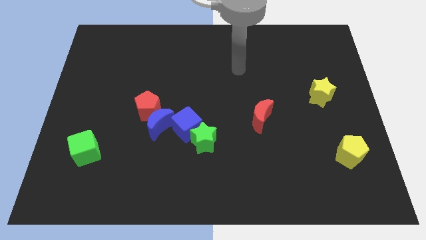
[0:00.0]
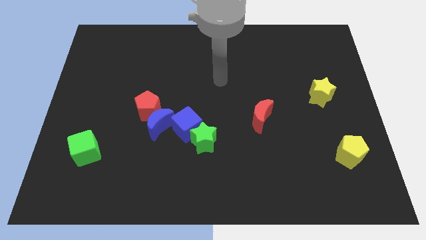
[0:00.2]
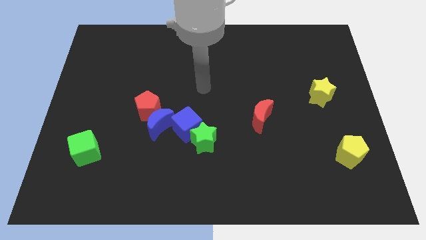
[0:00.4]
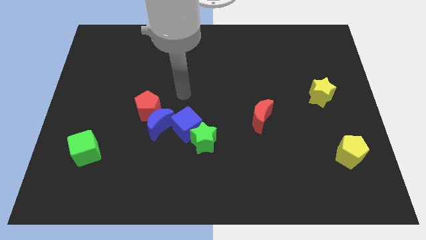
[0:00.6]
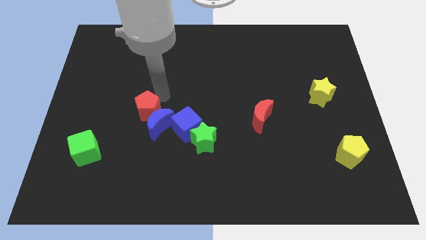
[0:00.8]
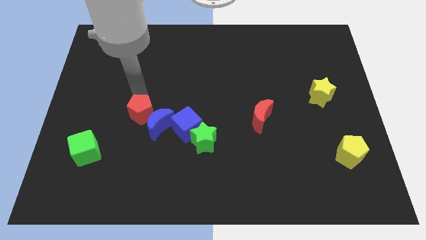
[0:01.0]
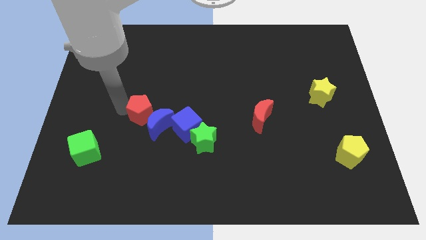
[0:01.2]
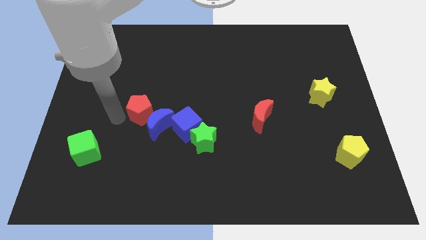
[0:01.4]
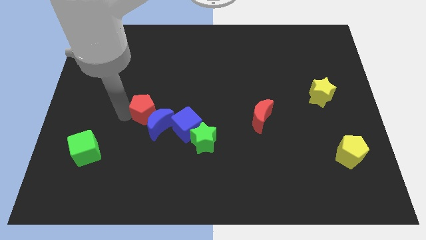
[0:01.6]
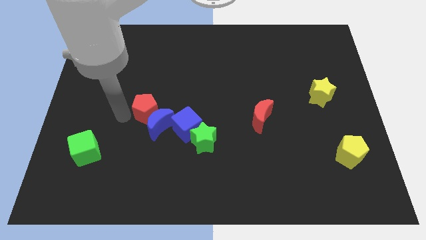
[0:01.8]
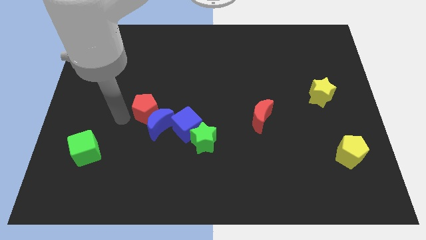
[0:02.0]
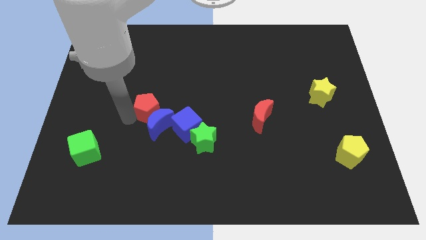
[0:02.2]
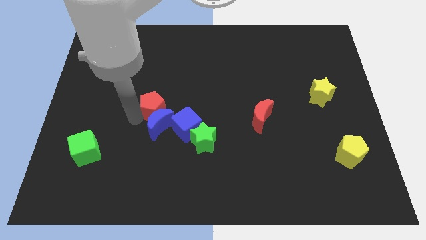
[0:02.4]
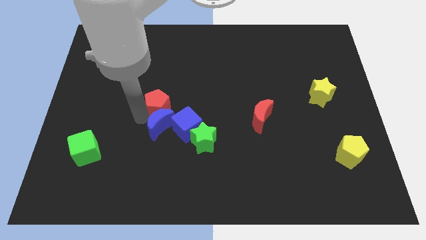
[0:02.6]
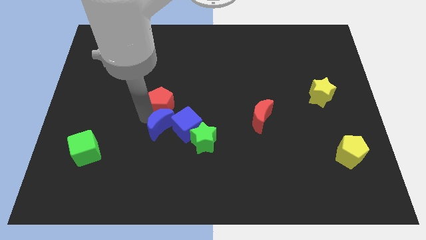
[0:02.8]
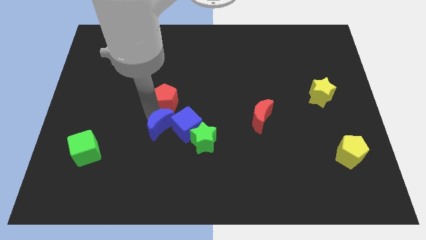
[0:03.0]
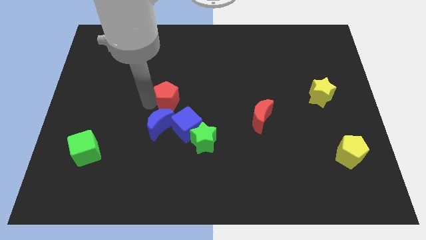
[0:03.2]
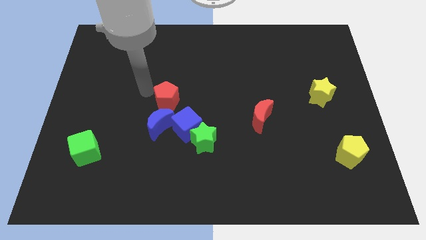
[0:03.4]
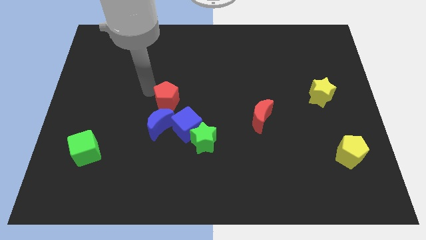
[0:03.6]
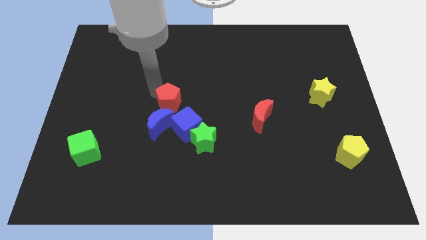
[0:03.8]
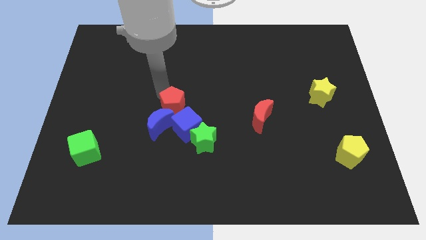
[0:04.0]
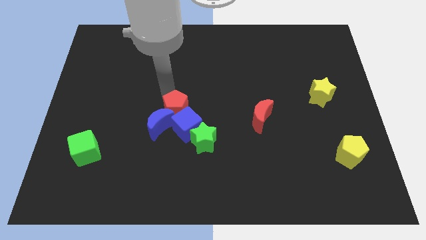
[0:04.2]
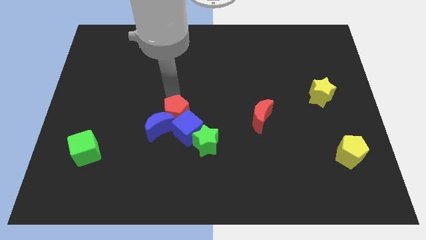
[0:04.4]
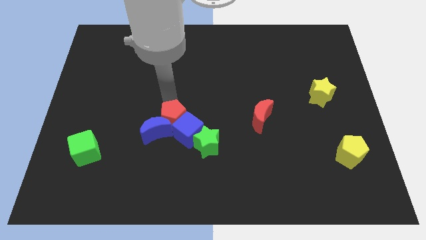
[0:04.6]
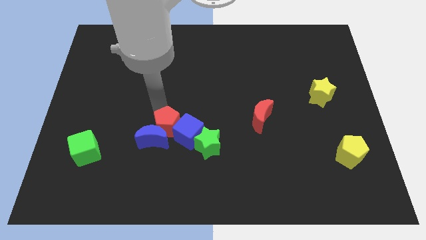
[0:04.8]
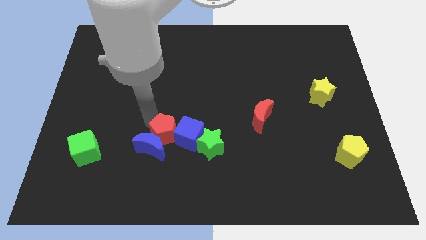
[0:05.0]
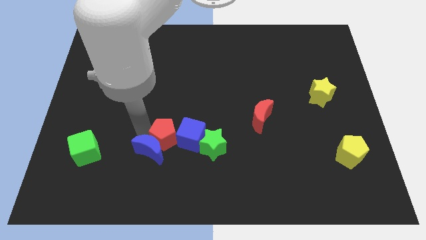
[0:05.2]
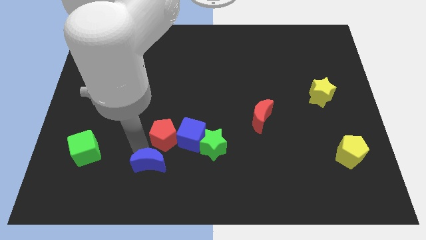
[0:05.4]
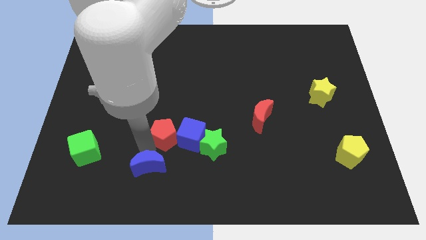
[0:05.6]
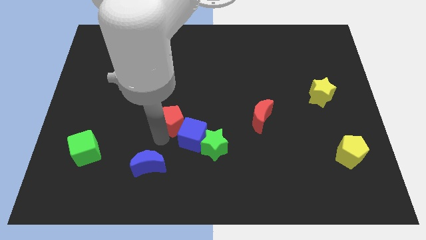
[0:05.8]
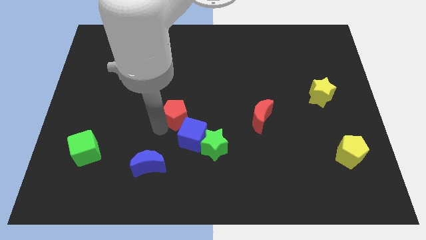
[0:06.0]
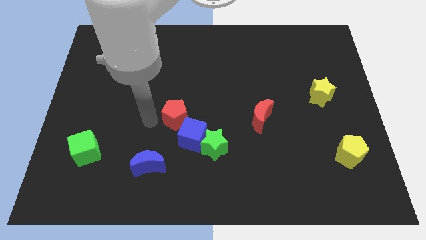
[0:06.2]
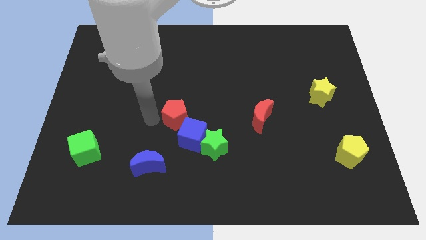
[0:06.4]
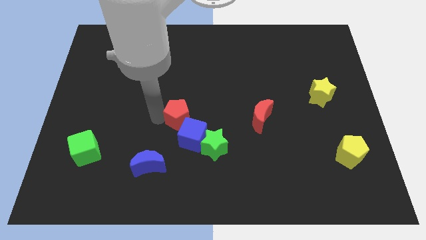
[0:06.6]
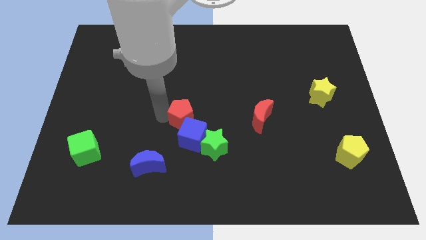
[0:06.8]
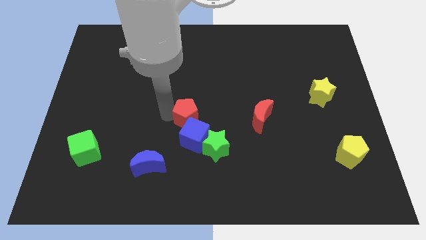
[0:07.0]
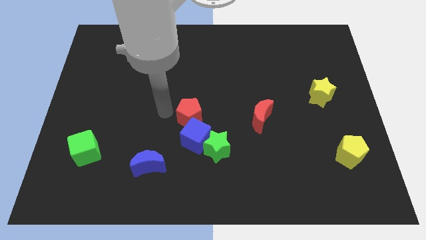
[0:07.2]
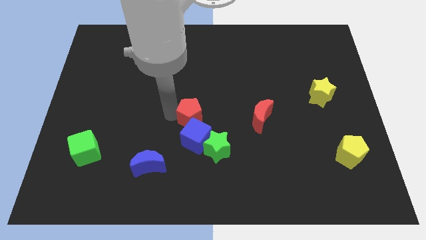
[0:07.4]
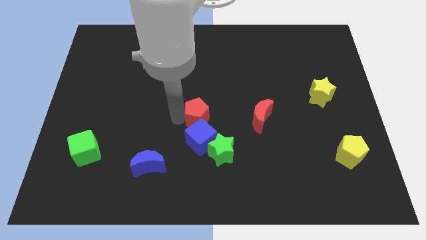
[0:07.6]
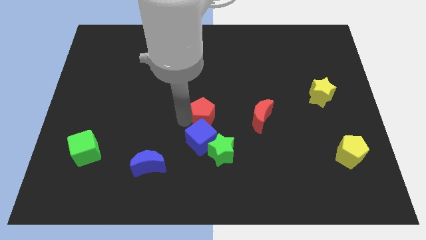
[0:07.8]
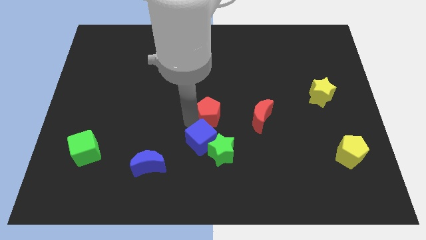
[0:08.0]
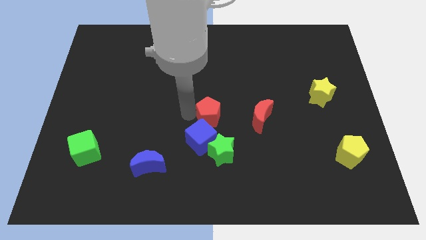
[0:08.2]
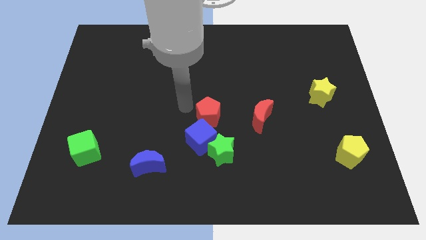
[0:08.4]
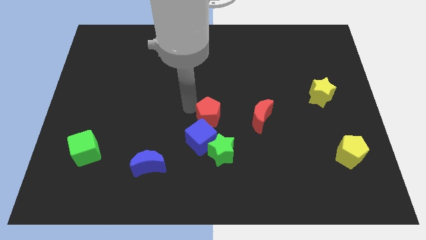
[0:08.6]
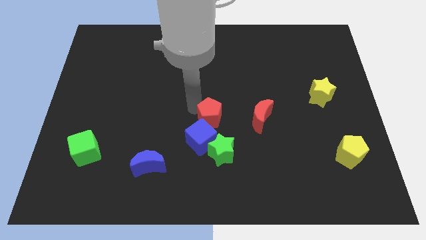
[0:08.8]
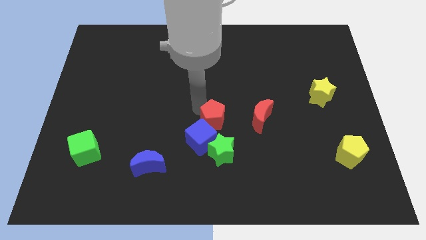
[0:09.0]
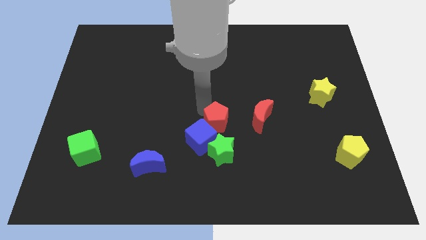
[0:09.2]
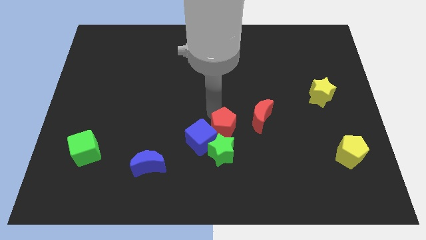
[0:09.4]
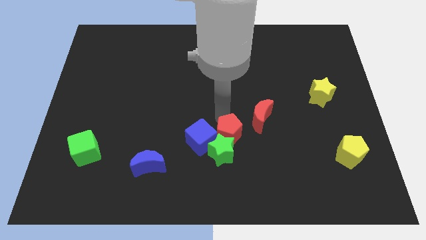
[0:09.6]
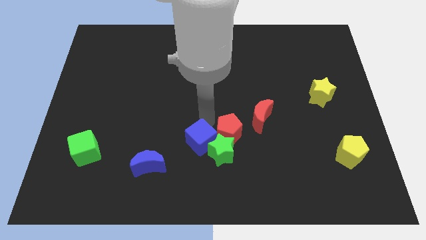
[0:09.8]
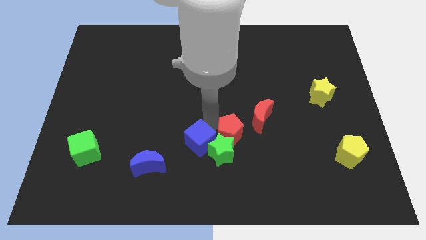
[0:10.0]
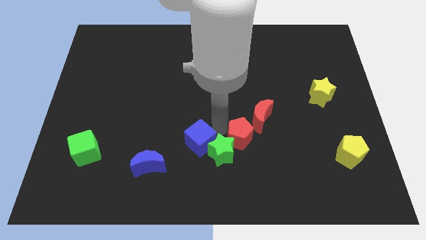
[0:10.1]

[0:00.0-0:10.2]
slide the red pentagon to the right of the green star

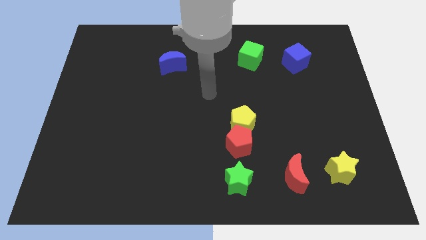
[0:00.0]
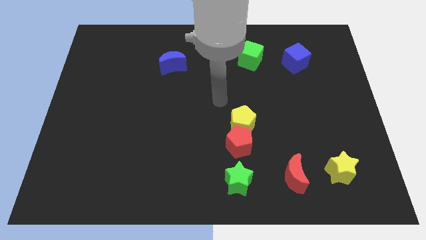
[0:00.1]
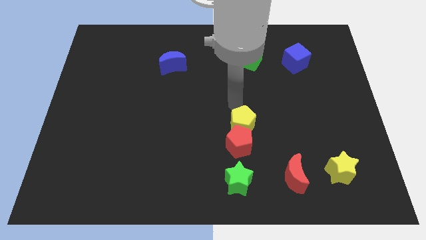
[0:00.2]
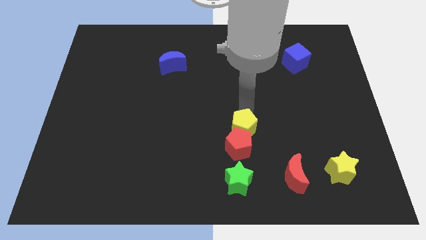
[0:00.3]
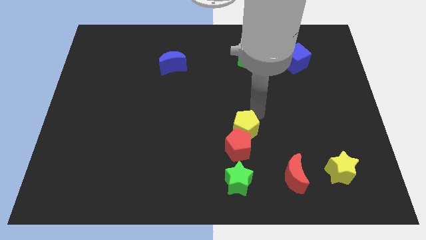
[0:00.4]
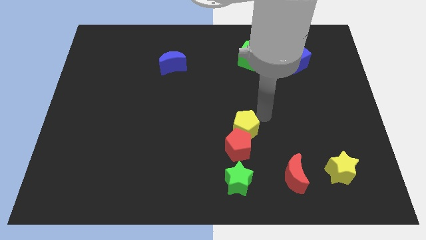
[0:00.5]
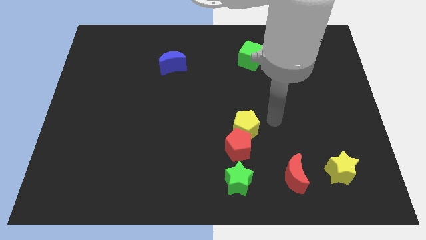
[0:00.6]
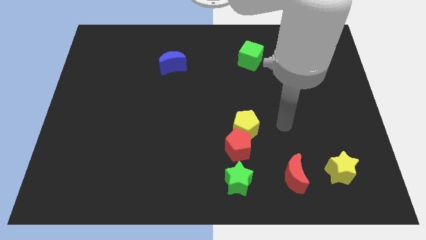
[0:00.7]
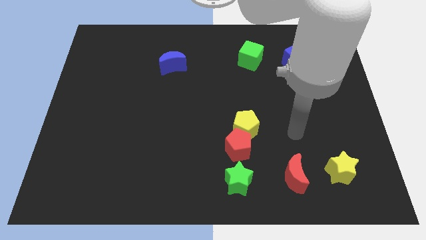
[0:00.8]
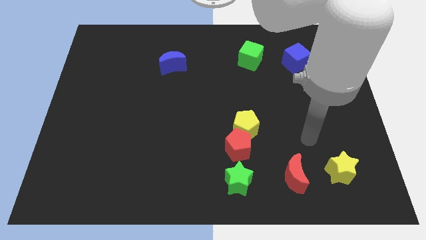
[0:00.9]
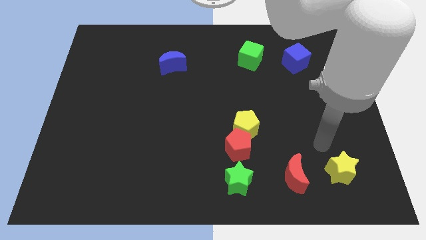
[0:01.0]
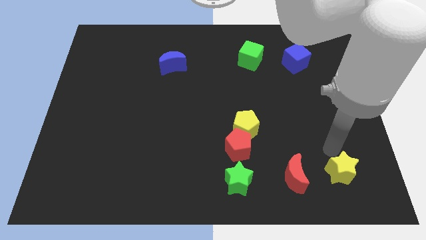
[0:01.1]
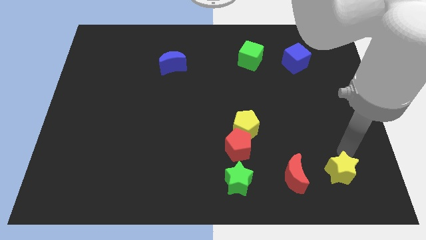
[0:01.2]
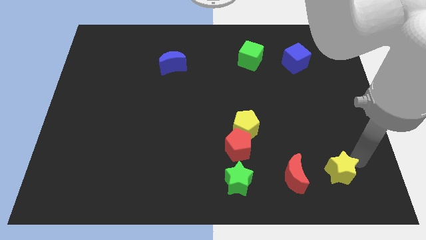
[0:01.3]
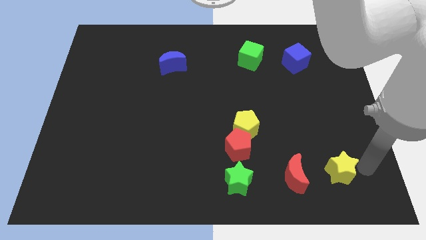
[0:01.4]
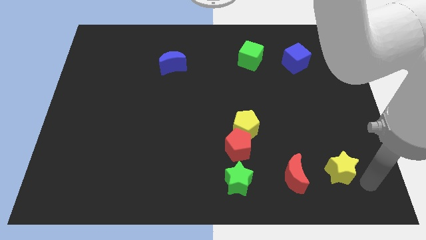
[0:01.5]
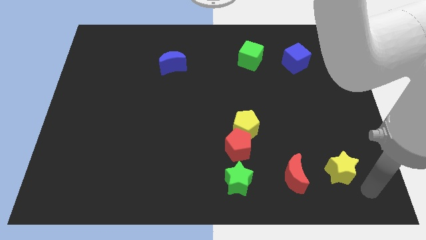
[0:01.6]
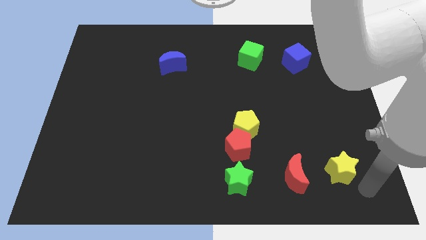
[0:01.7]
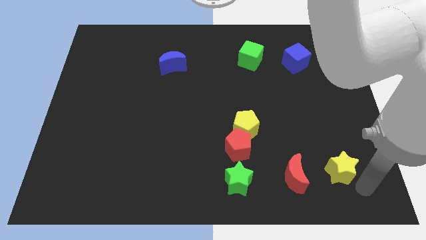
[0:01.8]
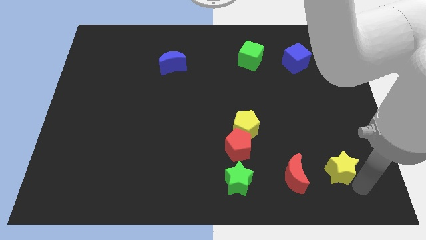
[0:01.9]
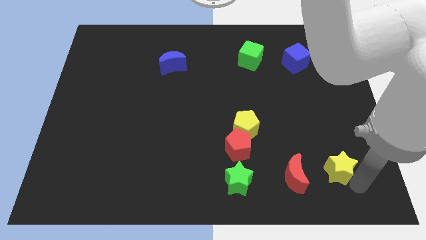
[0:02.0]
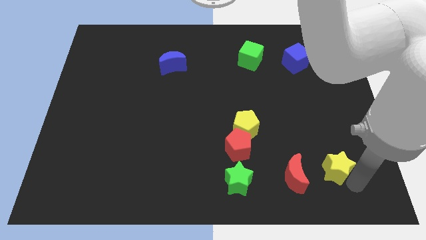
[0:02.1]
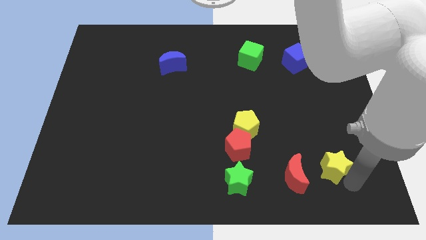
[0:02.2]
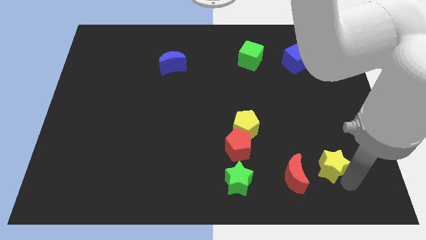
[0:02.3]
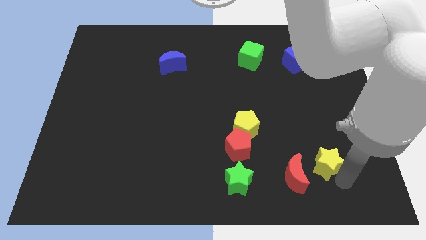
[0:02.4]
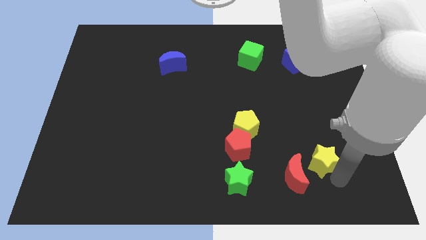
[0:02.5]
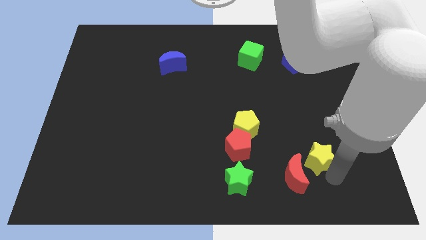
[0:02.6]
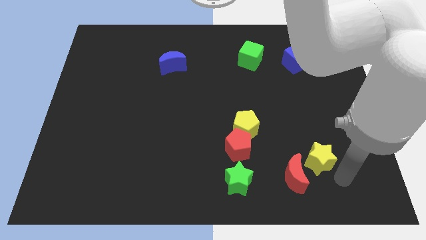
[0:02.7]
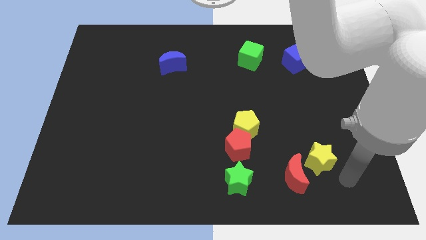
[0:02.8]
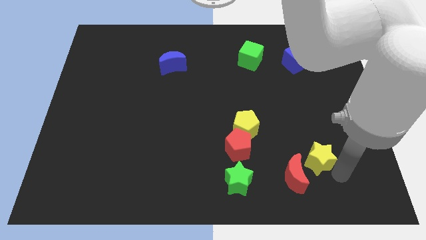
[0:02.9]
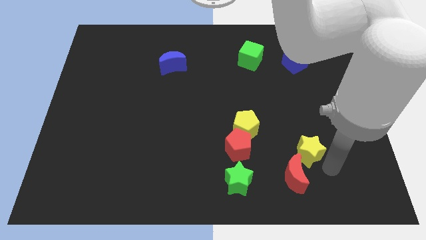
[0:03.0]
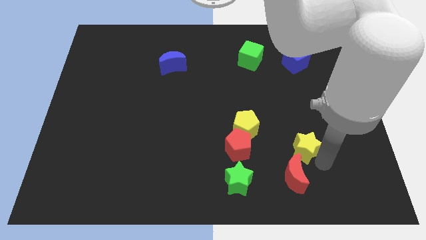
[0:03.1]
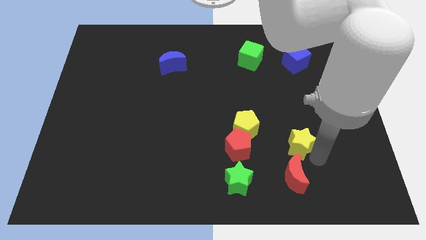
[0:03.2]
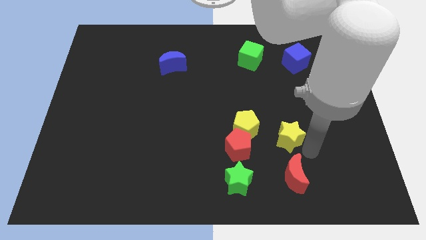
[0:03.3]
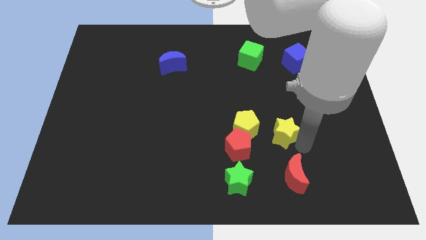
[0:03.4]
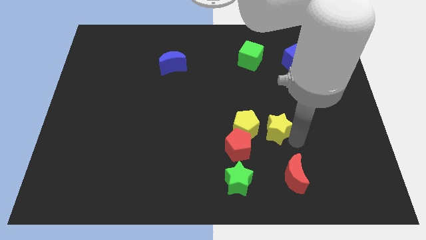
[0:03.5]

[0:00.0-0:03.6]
slide the yellow star to the top right of the red pentagon
